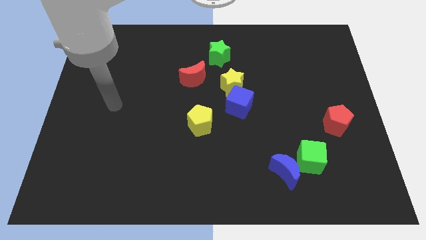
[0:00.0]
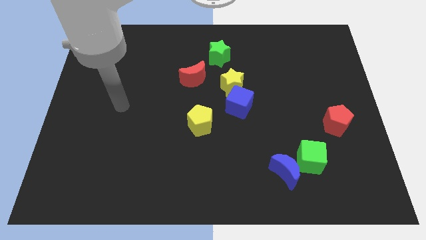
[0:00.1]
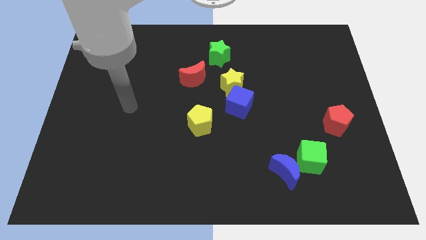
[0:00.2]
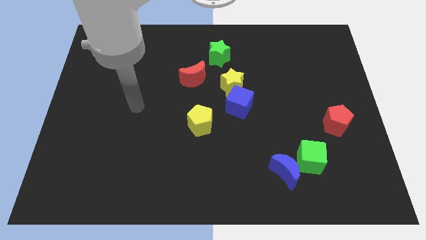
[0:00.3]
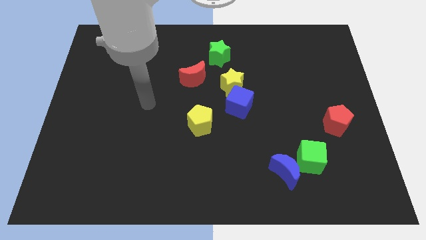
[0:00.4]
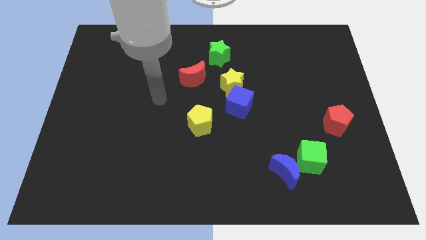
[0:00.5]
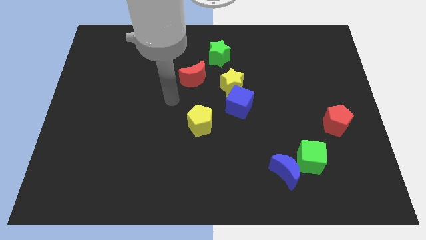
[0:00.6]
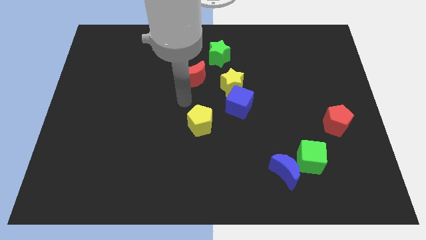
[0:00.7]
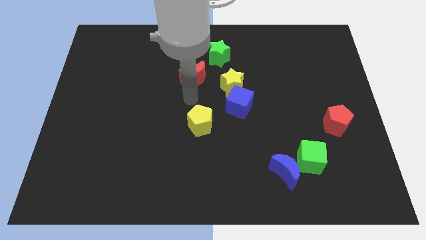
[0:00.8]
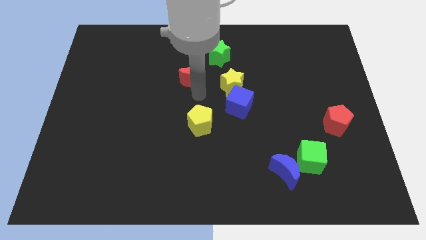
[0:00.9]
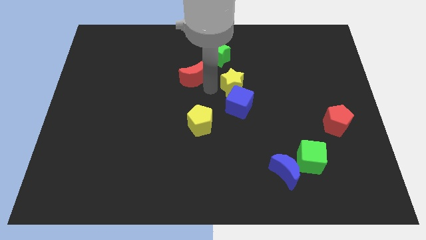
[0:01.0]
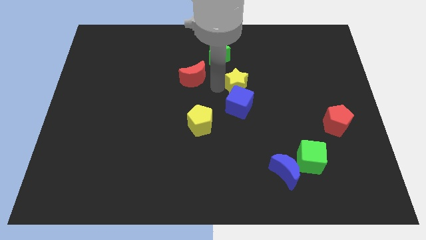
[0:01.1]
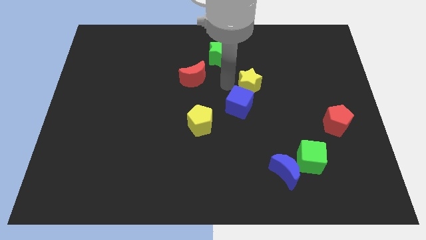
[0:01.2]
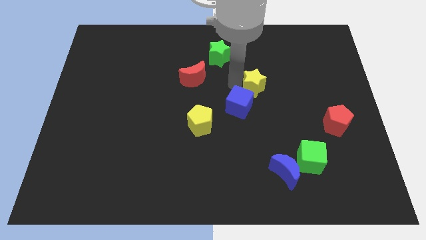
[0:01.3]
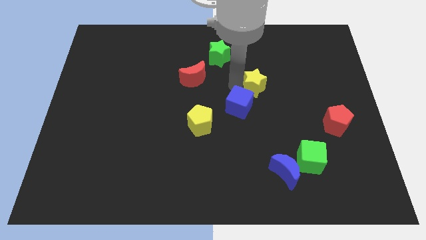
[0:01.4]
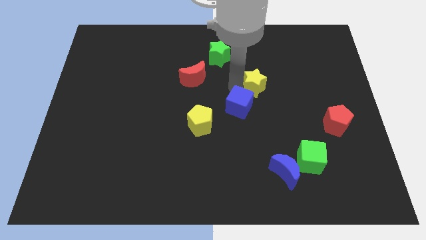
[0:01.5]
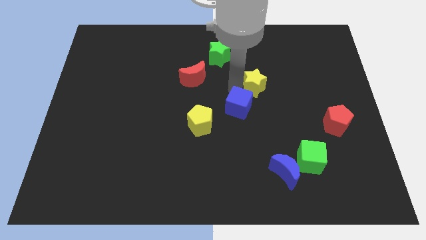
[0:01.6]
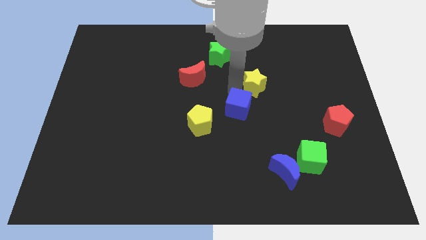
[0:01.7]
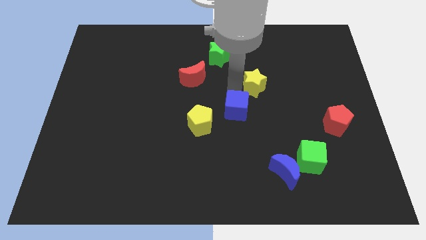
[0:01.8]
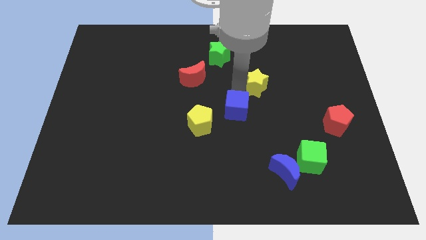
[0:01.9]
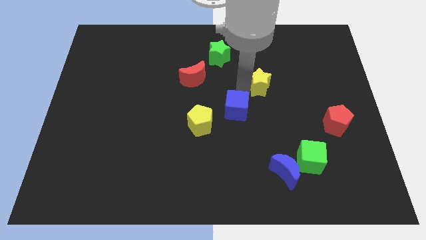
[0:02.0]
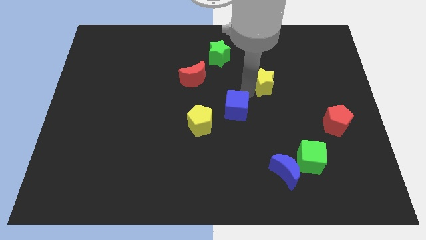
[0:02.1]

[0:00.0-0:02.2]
pull the blue cube apart from the yellow star

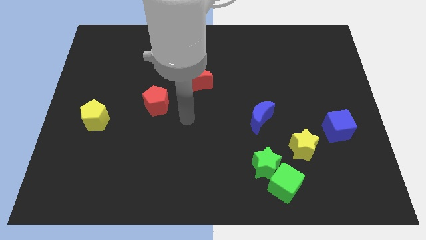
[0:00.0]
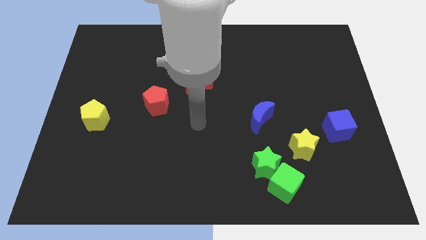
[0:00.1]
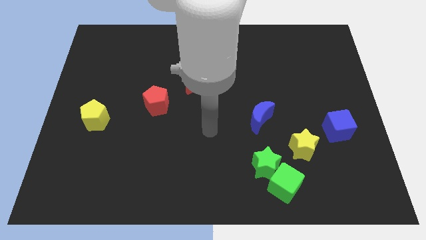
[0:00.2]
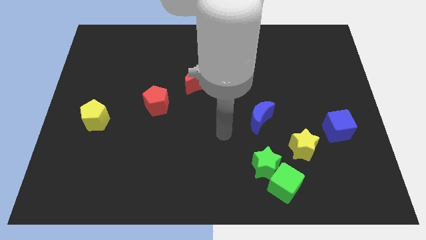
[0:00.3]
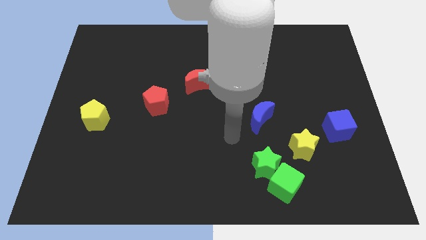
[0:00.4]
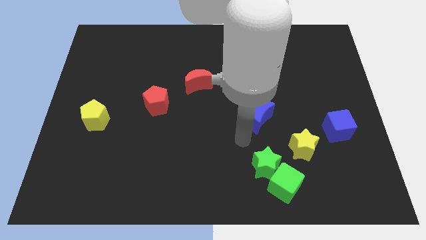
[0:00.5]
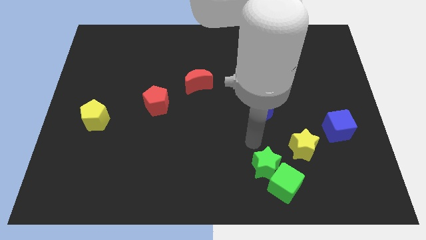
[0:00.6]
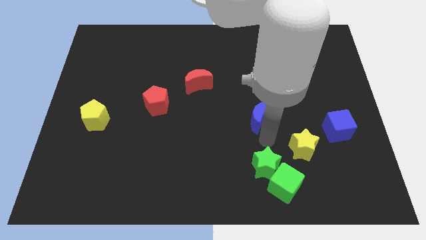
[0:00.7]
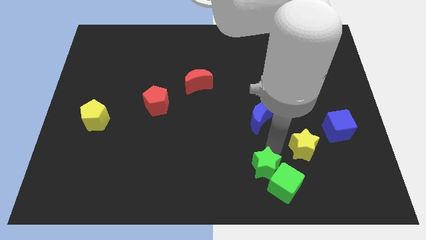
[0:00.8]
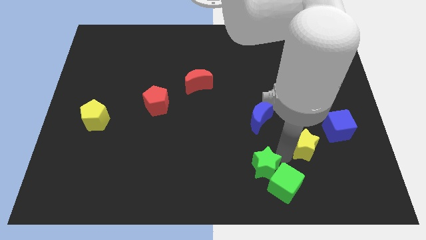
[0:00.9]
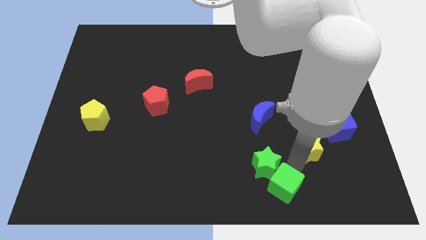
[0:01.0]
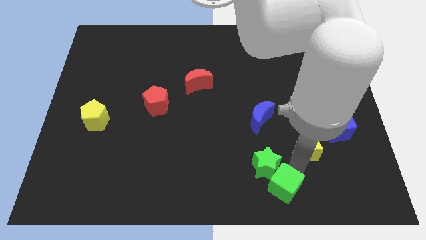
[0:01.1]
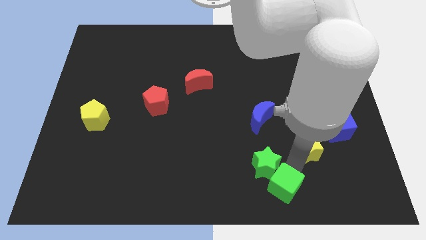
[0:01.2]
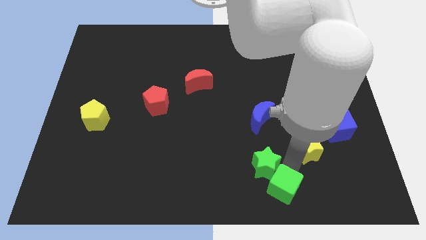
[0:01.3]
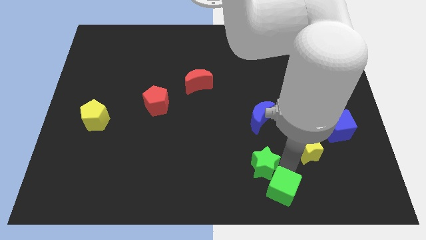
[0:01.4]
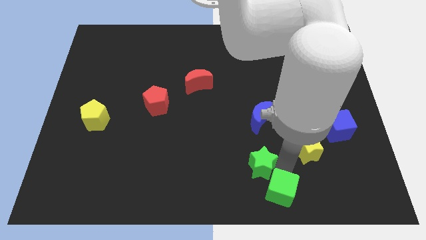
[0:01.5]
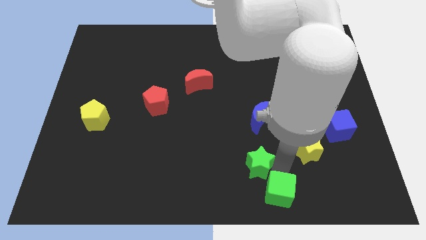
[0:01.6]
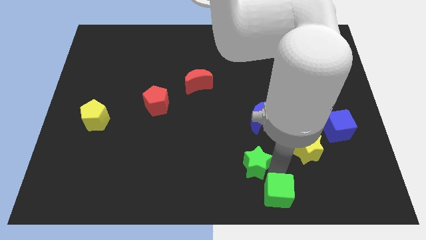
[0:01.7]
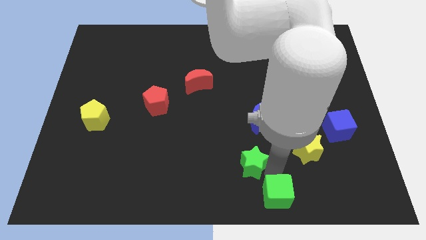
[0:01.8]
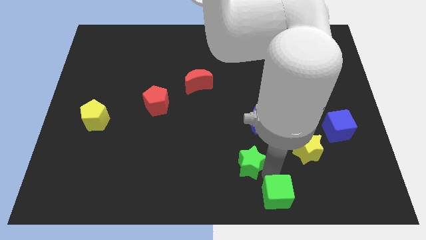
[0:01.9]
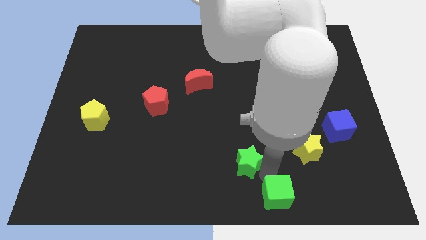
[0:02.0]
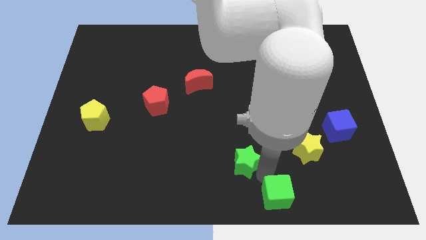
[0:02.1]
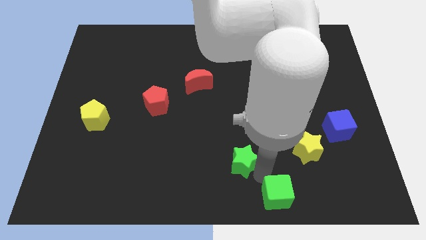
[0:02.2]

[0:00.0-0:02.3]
separate the green star from the green cube and yellow star

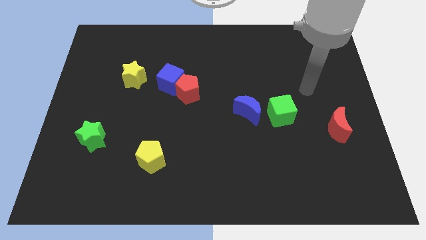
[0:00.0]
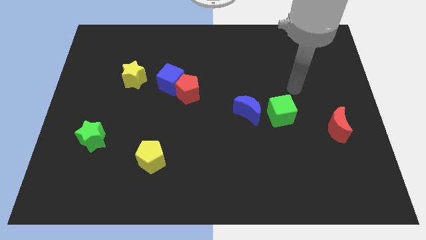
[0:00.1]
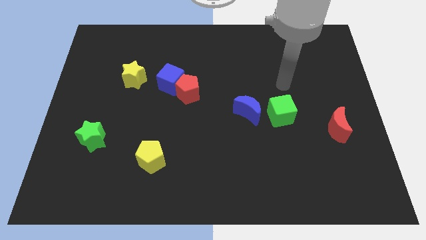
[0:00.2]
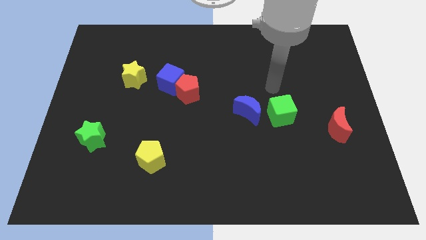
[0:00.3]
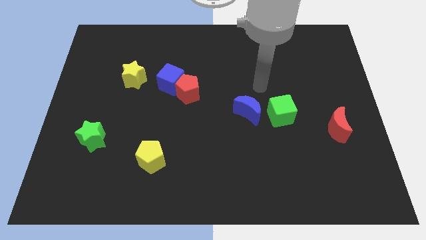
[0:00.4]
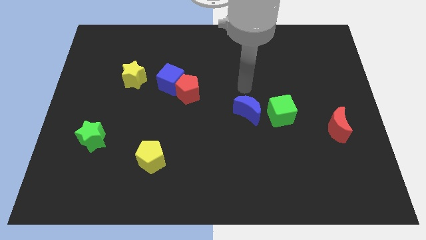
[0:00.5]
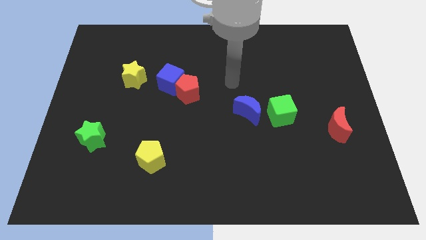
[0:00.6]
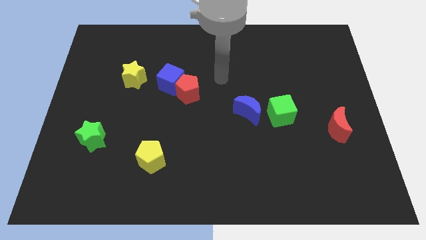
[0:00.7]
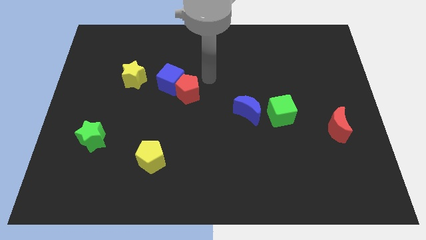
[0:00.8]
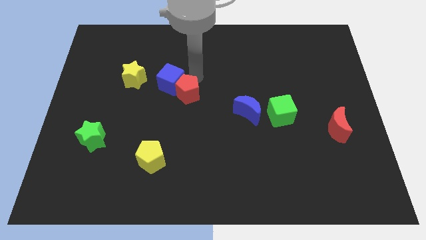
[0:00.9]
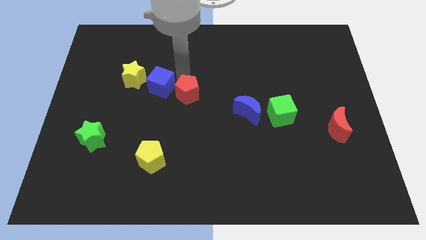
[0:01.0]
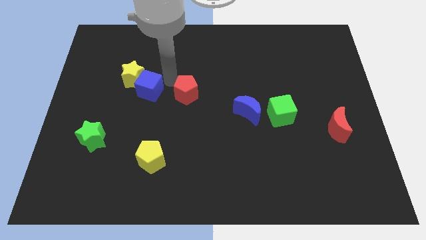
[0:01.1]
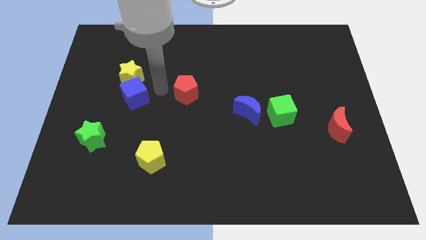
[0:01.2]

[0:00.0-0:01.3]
pull the red pentagon apart from the blue cube

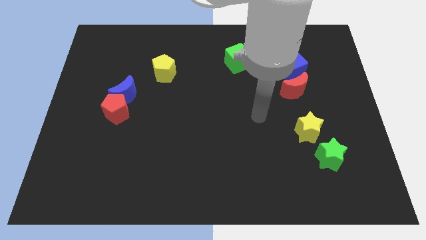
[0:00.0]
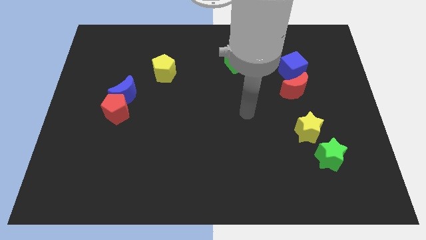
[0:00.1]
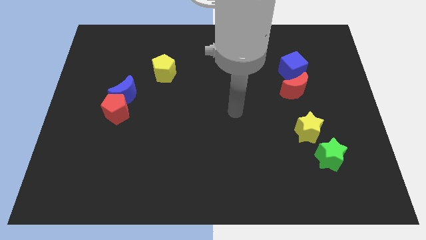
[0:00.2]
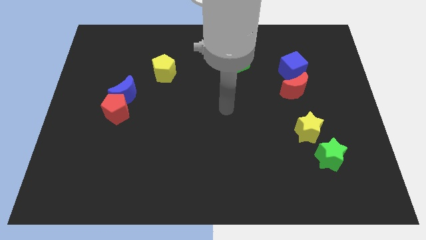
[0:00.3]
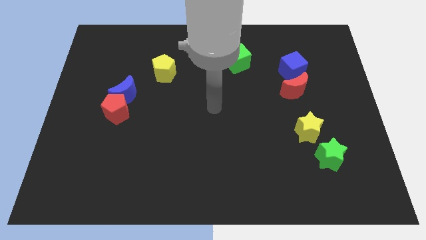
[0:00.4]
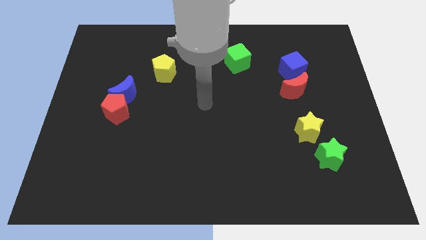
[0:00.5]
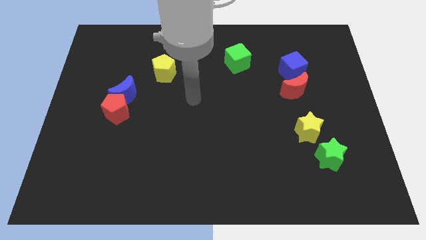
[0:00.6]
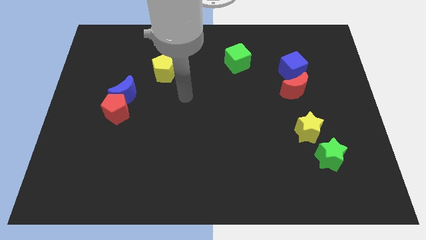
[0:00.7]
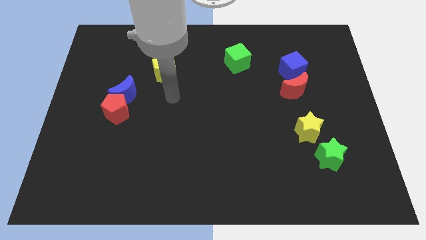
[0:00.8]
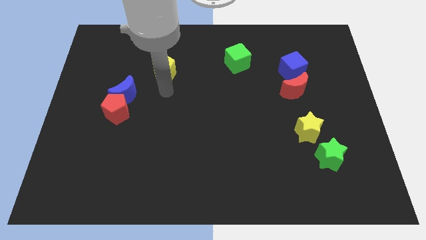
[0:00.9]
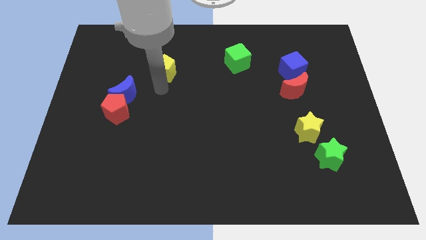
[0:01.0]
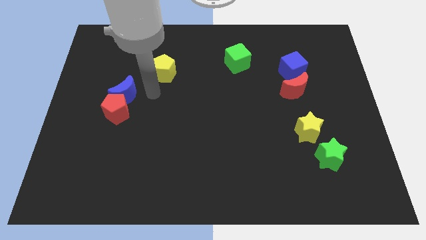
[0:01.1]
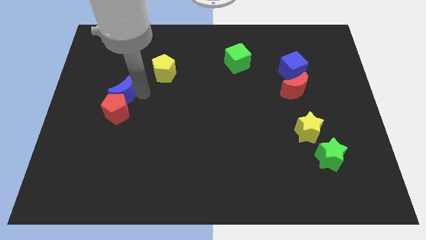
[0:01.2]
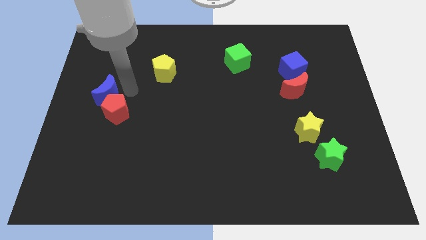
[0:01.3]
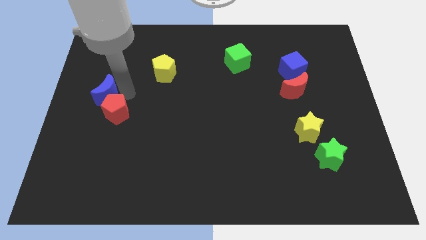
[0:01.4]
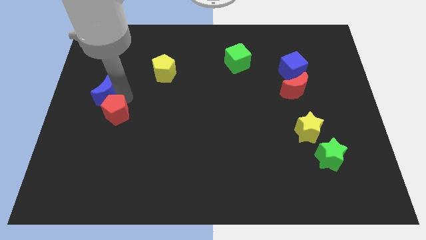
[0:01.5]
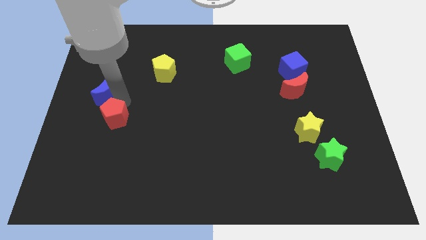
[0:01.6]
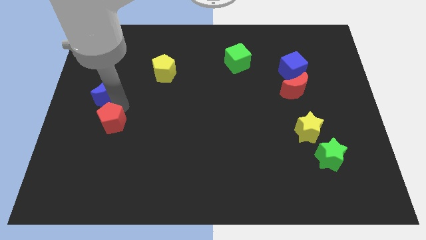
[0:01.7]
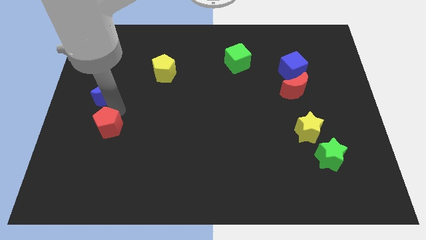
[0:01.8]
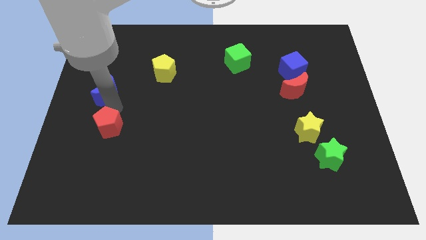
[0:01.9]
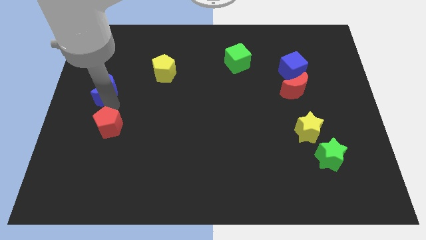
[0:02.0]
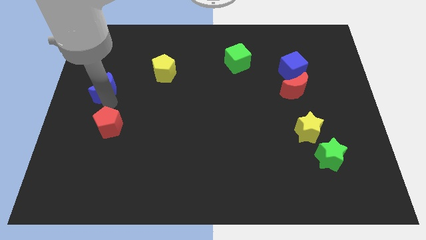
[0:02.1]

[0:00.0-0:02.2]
pull the red pentagon apart from the blue moon

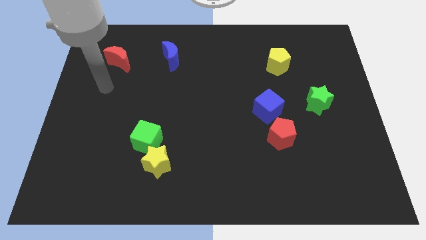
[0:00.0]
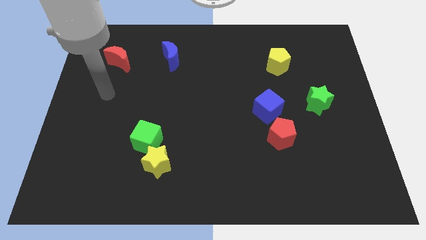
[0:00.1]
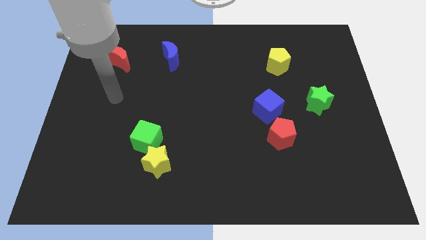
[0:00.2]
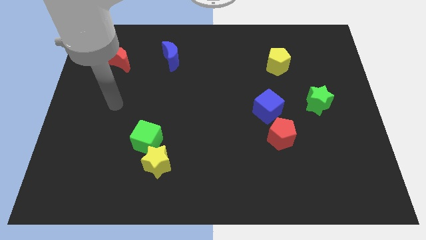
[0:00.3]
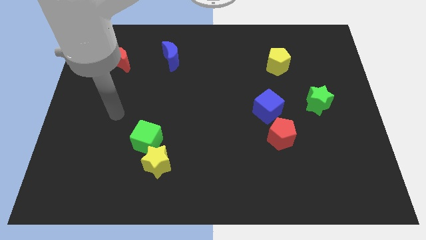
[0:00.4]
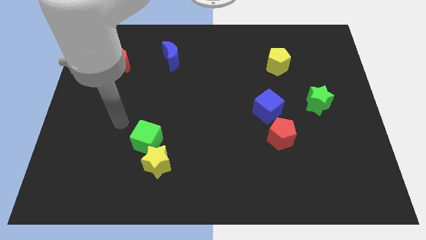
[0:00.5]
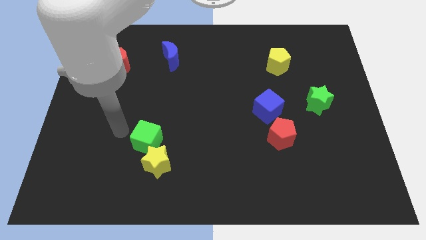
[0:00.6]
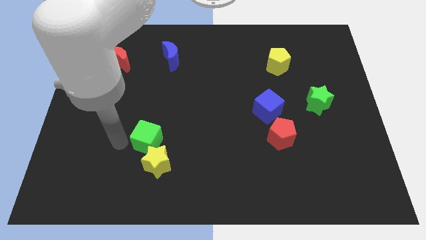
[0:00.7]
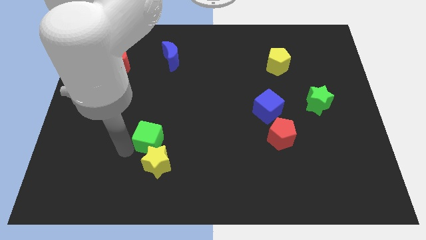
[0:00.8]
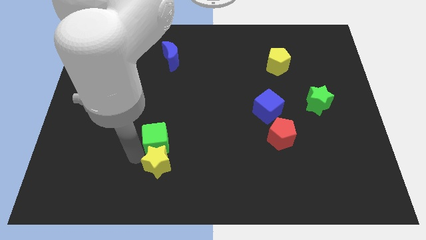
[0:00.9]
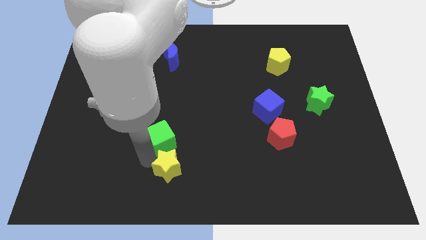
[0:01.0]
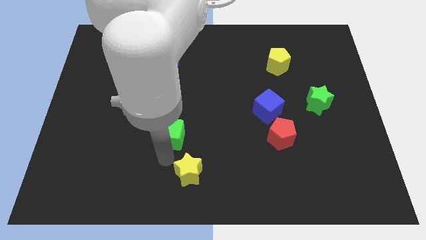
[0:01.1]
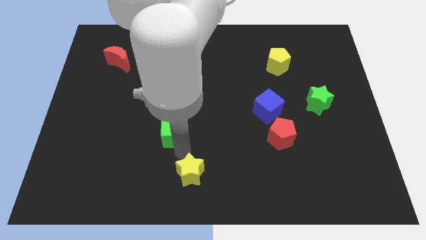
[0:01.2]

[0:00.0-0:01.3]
pull the green cube apart from the yellow star
